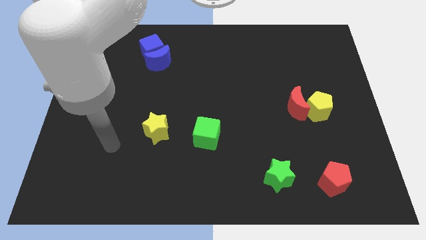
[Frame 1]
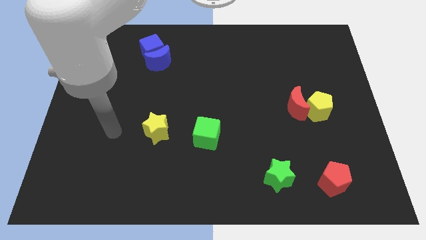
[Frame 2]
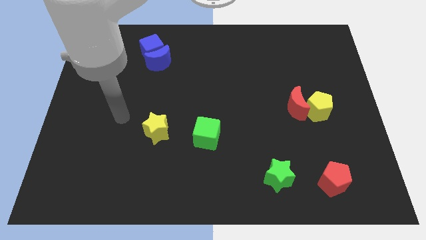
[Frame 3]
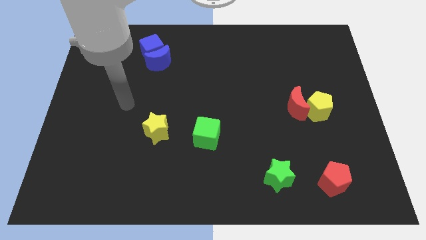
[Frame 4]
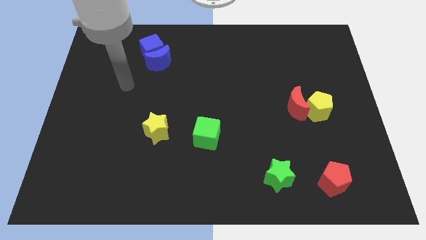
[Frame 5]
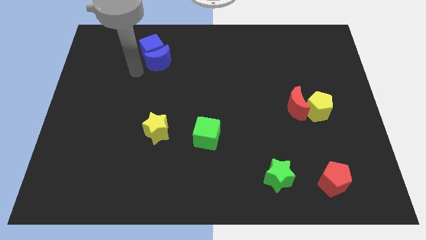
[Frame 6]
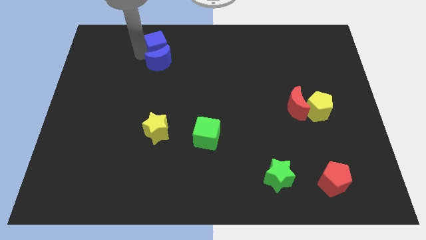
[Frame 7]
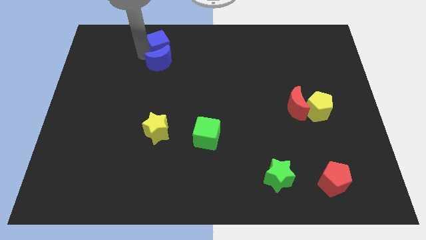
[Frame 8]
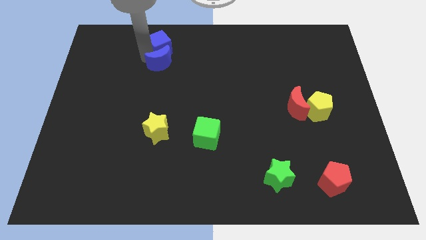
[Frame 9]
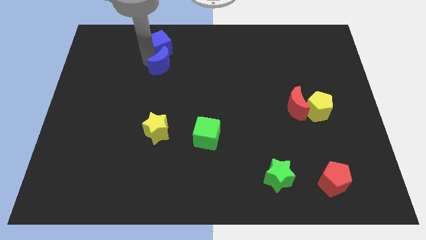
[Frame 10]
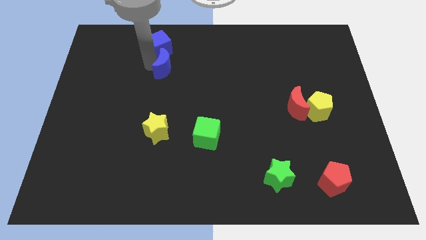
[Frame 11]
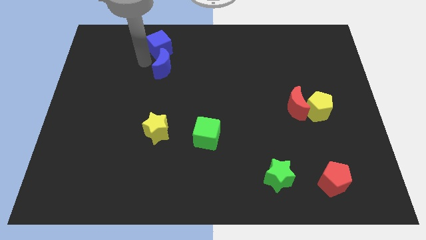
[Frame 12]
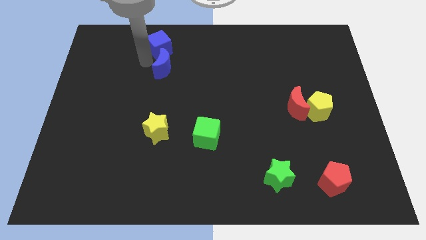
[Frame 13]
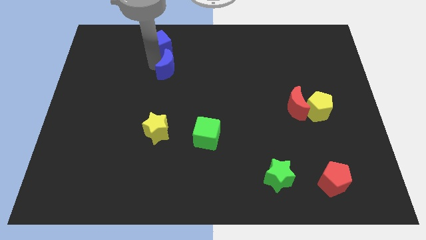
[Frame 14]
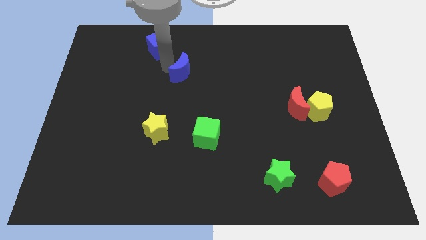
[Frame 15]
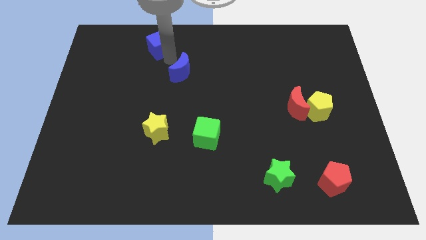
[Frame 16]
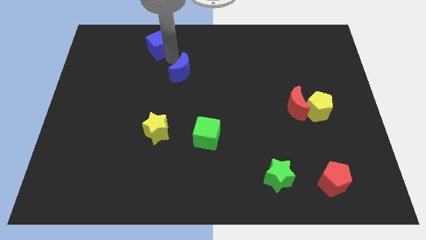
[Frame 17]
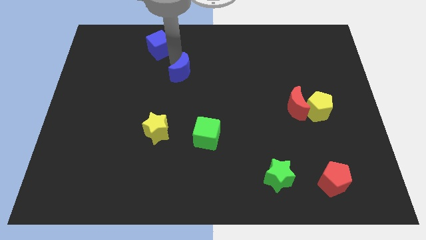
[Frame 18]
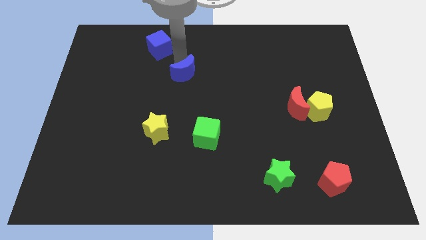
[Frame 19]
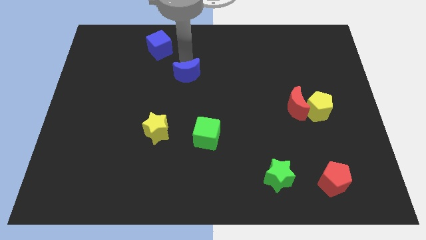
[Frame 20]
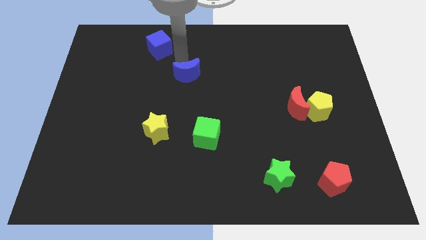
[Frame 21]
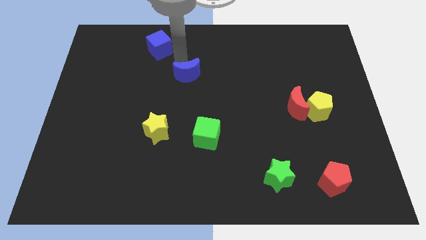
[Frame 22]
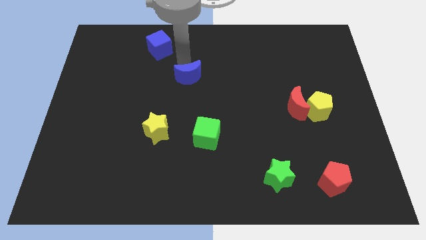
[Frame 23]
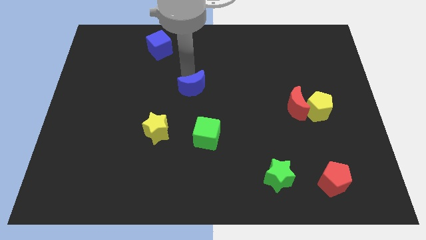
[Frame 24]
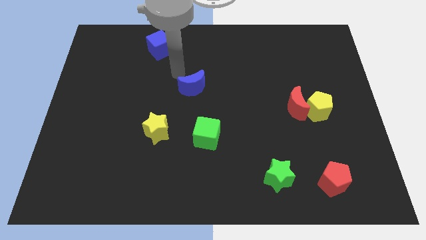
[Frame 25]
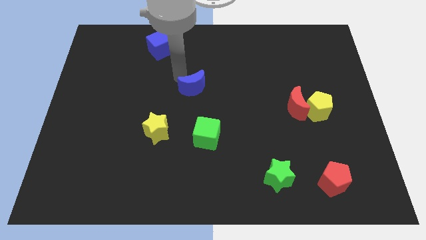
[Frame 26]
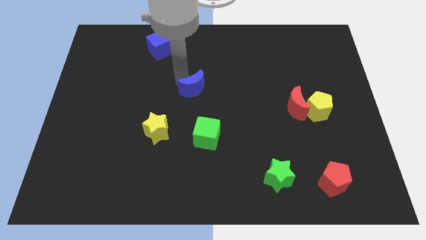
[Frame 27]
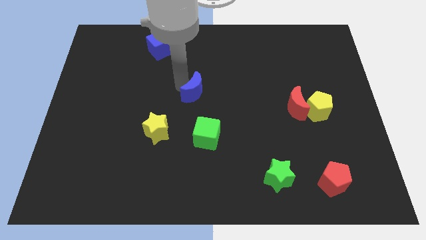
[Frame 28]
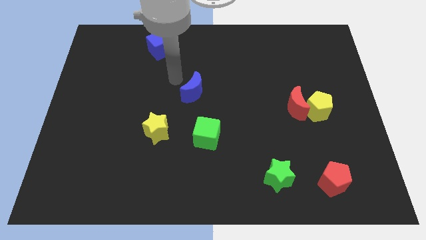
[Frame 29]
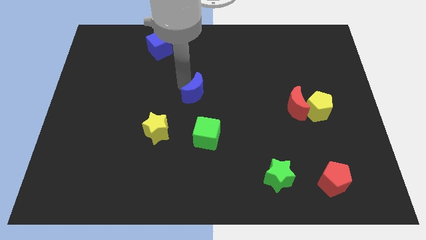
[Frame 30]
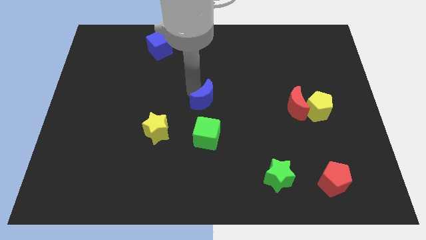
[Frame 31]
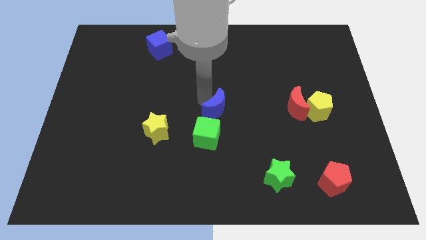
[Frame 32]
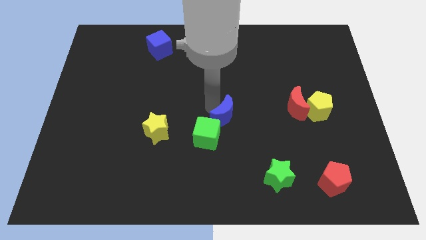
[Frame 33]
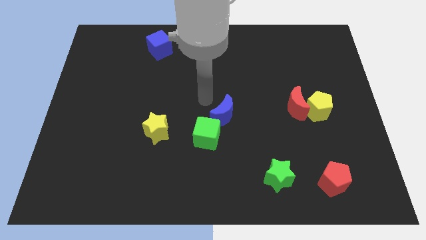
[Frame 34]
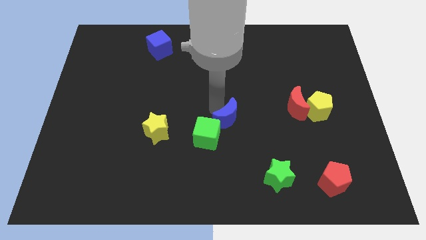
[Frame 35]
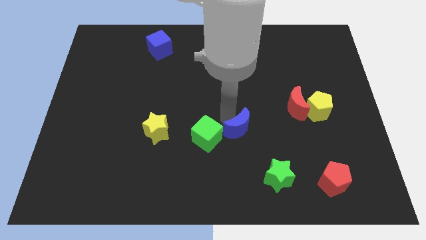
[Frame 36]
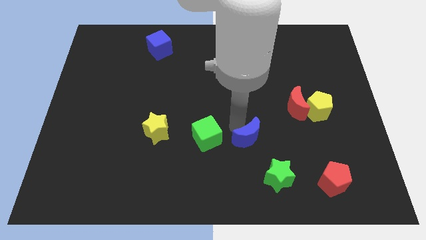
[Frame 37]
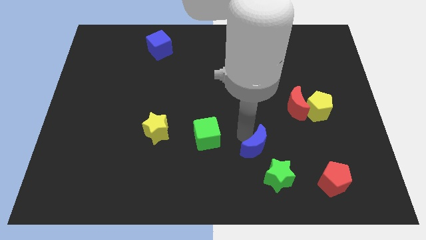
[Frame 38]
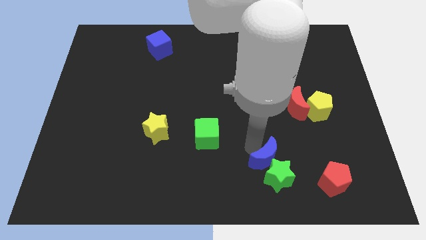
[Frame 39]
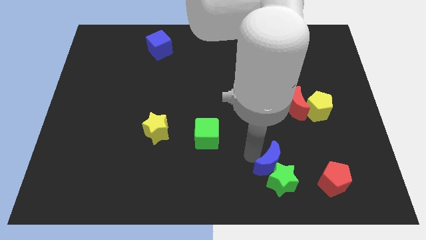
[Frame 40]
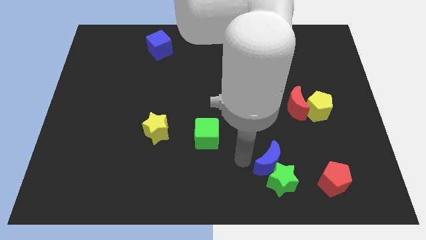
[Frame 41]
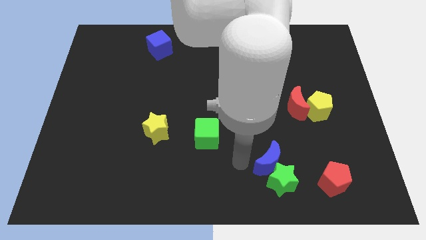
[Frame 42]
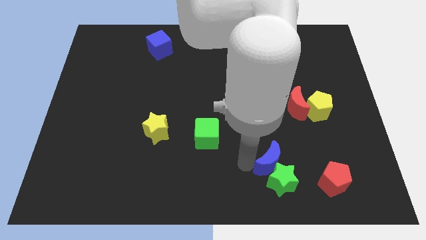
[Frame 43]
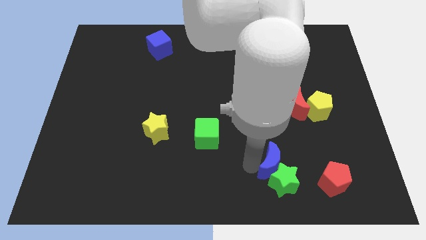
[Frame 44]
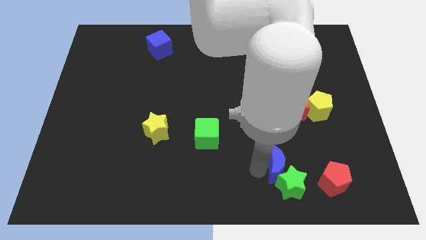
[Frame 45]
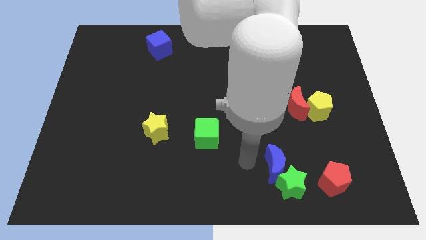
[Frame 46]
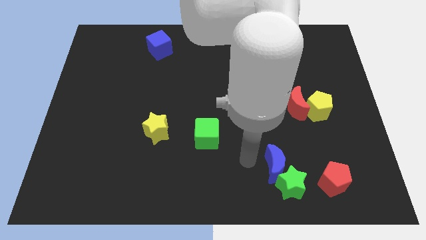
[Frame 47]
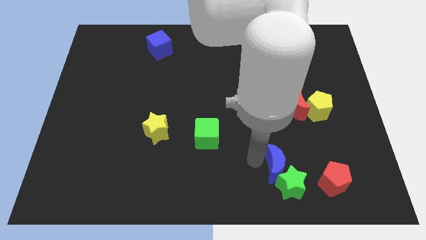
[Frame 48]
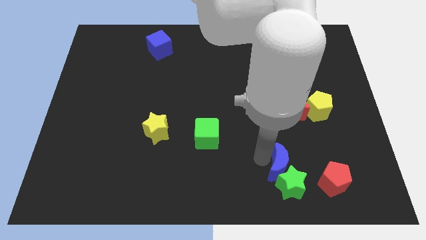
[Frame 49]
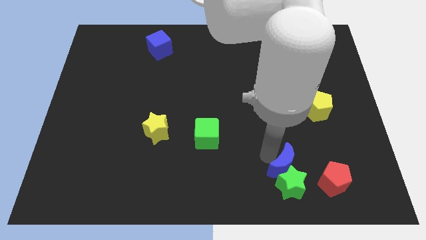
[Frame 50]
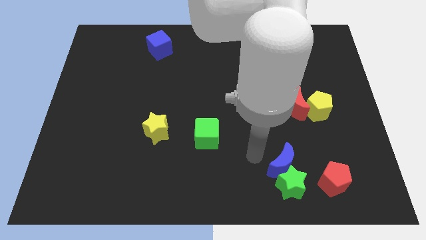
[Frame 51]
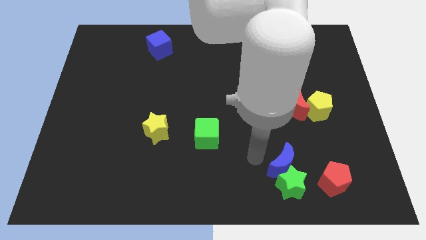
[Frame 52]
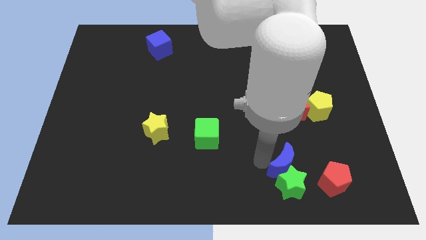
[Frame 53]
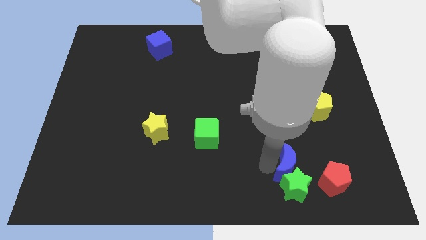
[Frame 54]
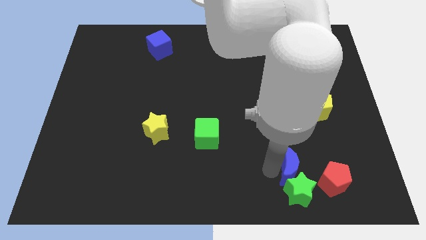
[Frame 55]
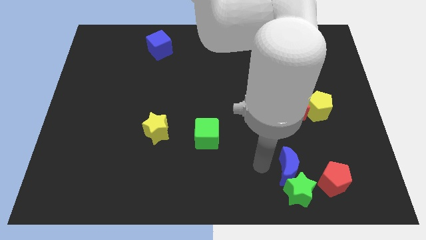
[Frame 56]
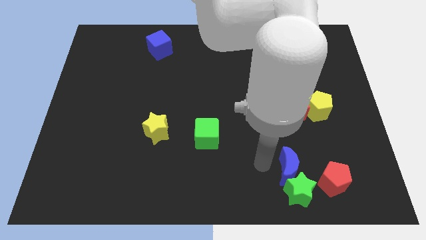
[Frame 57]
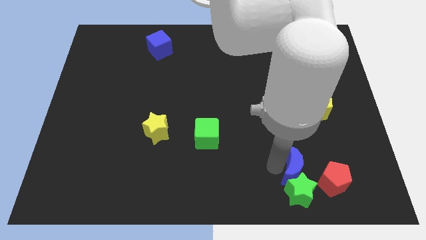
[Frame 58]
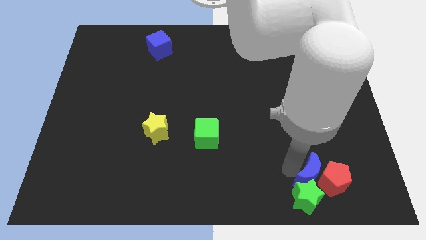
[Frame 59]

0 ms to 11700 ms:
move the blue moon next to the red pentagon

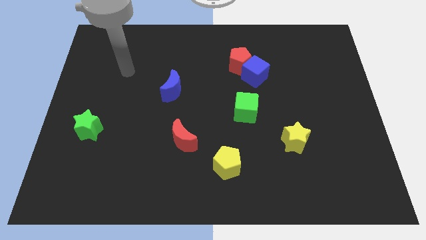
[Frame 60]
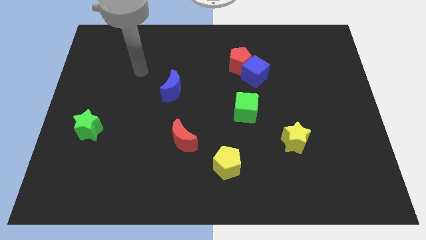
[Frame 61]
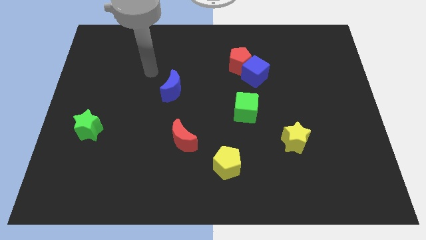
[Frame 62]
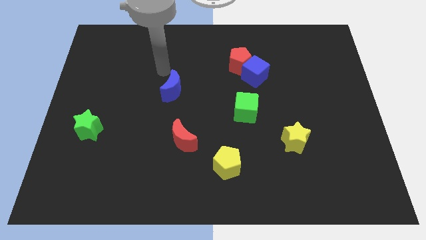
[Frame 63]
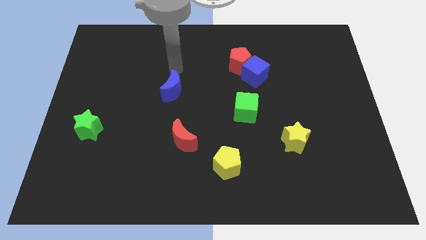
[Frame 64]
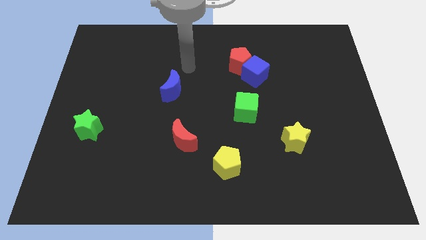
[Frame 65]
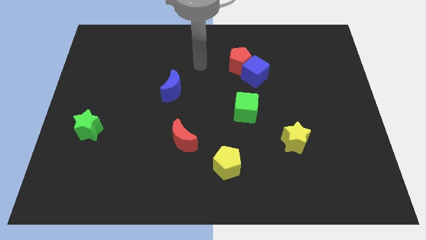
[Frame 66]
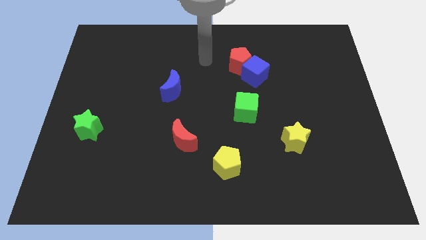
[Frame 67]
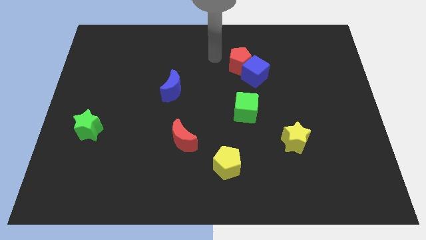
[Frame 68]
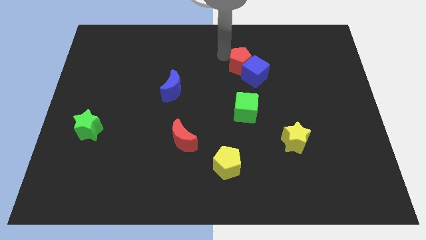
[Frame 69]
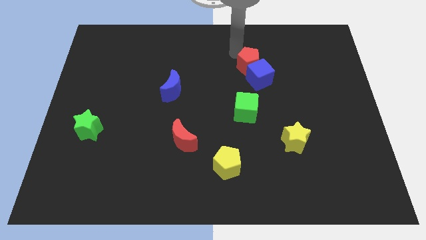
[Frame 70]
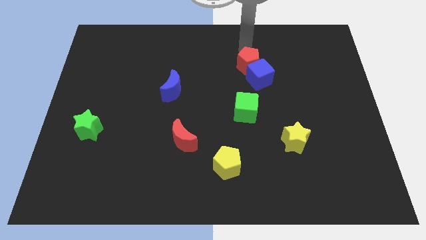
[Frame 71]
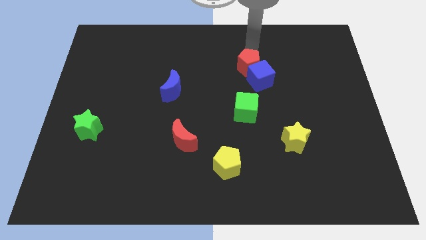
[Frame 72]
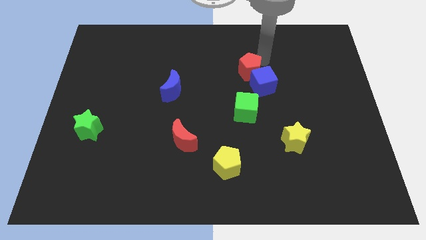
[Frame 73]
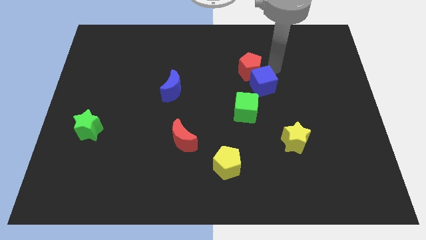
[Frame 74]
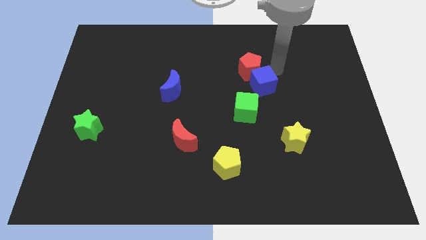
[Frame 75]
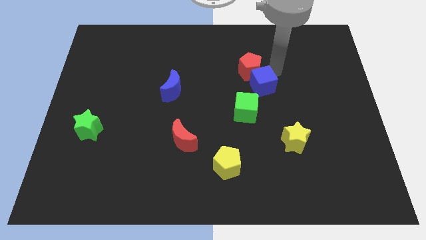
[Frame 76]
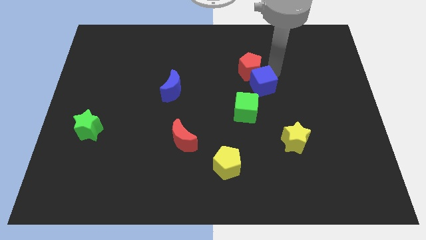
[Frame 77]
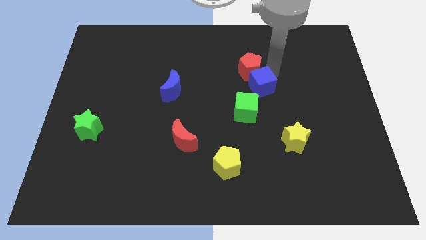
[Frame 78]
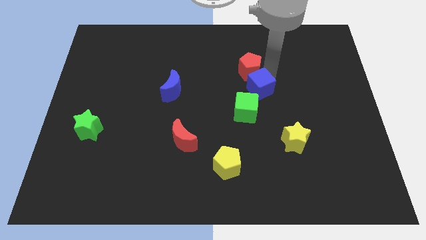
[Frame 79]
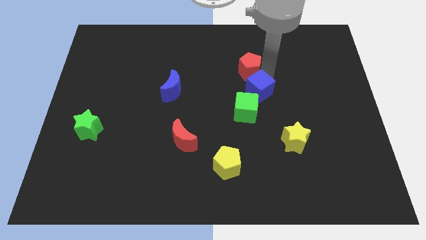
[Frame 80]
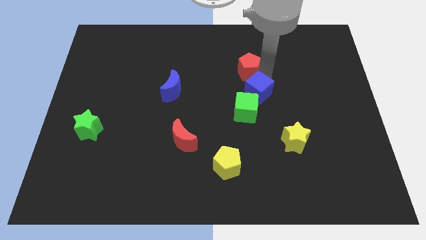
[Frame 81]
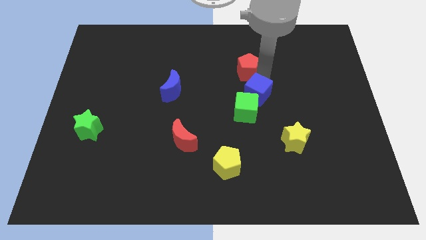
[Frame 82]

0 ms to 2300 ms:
slide the blue cube to the green cube
